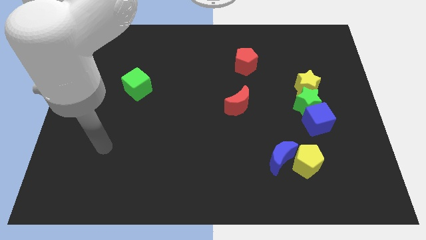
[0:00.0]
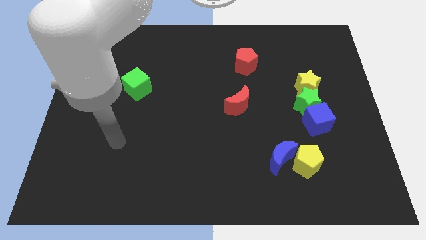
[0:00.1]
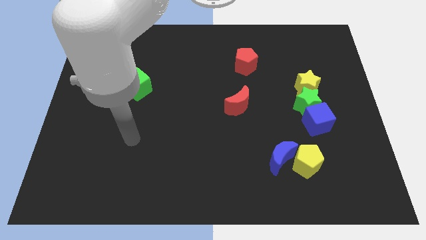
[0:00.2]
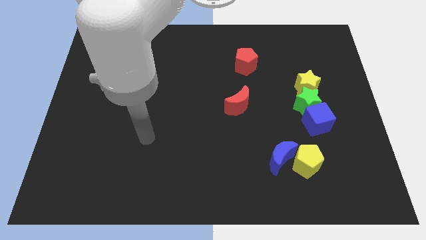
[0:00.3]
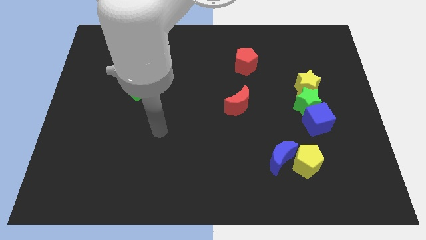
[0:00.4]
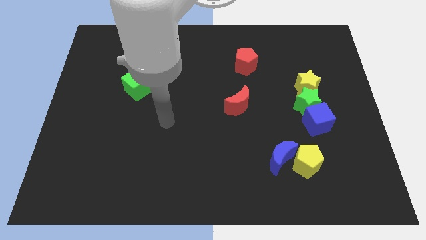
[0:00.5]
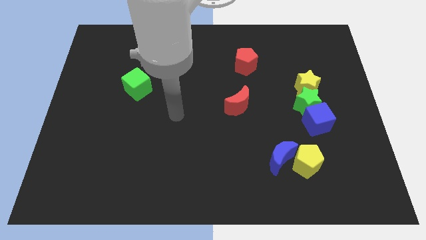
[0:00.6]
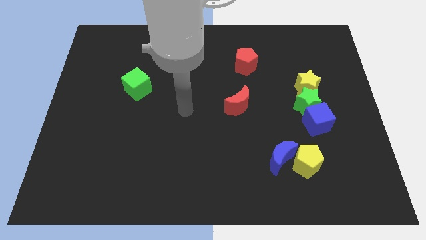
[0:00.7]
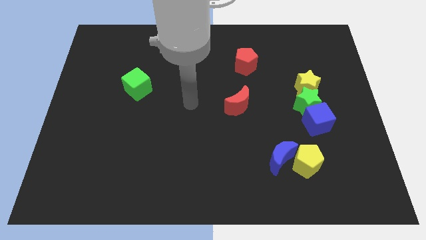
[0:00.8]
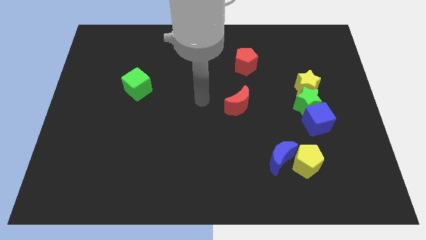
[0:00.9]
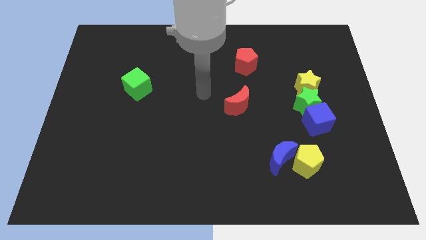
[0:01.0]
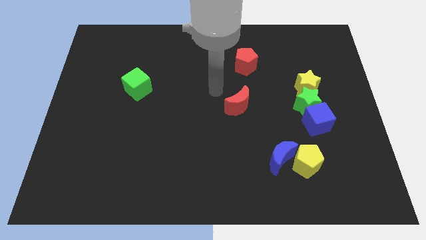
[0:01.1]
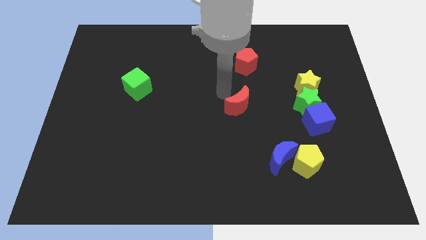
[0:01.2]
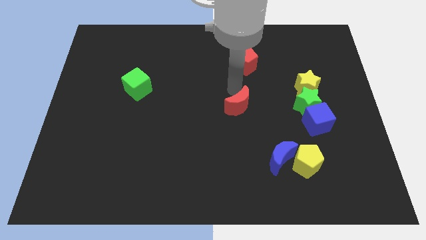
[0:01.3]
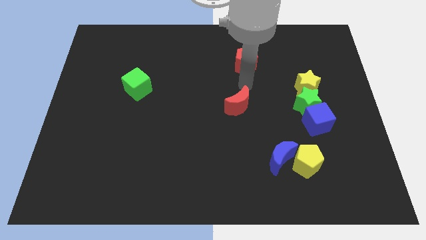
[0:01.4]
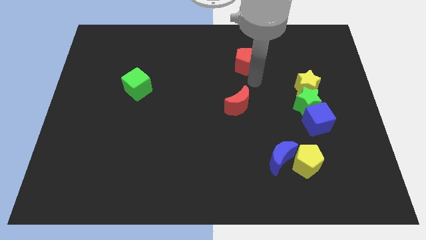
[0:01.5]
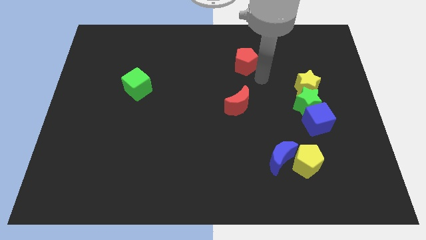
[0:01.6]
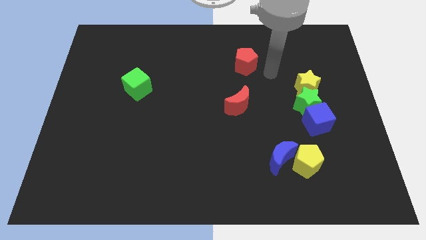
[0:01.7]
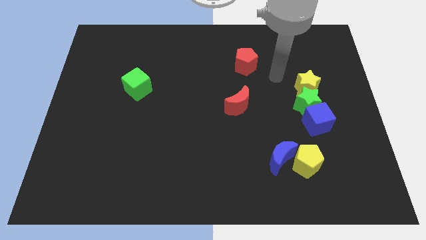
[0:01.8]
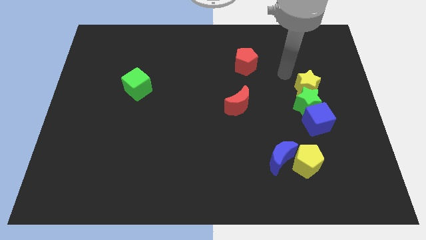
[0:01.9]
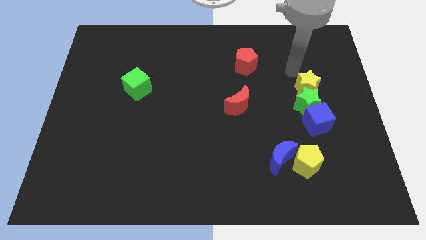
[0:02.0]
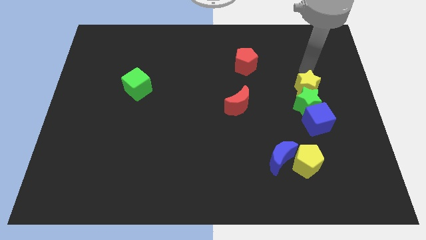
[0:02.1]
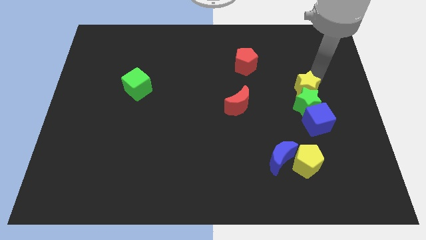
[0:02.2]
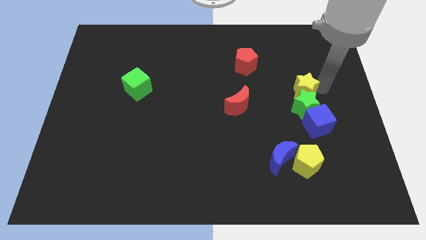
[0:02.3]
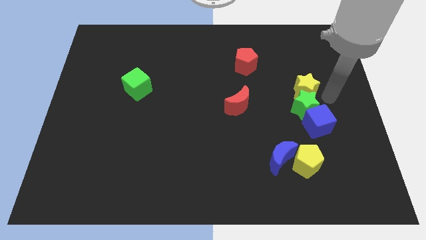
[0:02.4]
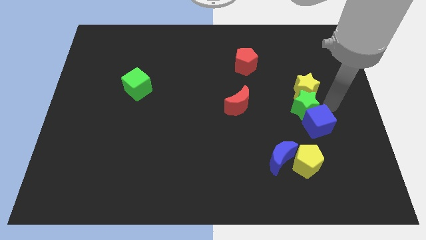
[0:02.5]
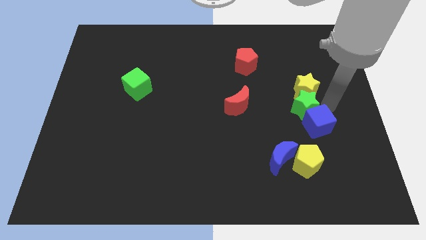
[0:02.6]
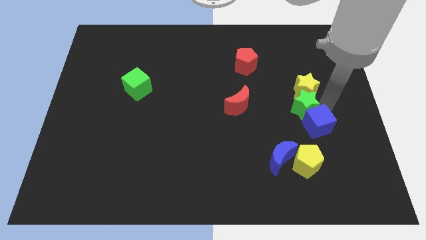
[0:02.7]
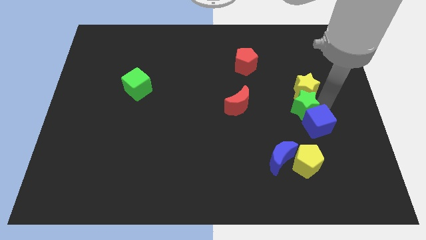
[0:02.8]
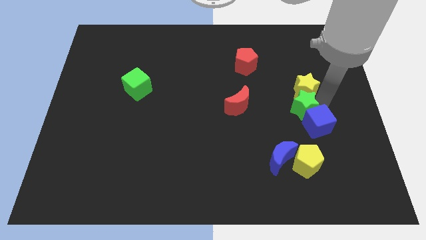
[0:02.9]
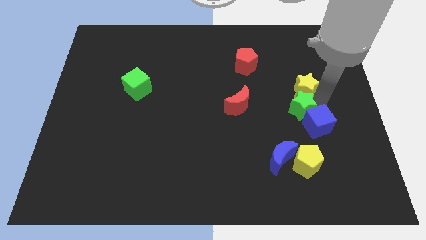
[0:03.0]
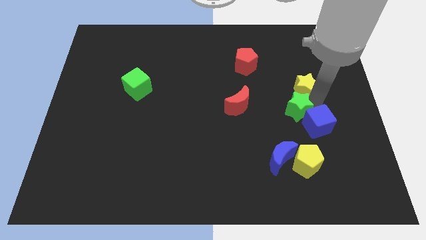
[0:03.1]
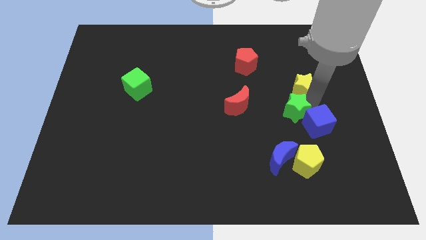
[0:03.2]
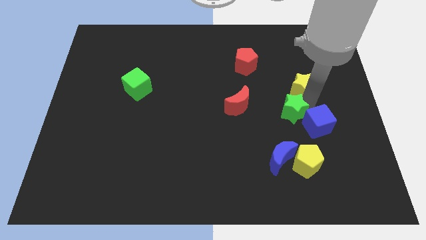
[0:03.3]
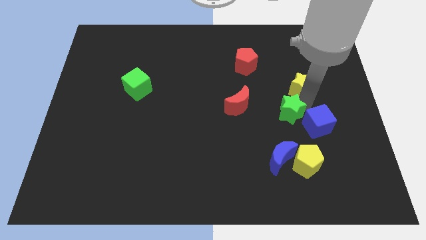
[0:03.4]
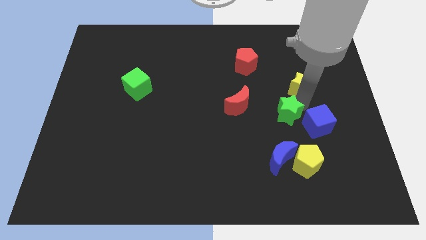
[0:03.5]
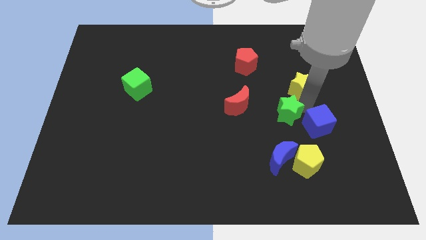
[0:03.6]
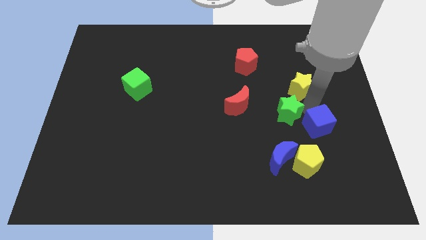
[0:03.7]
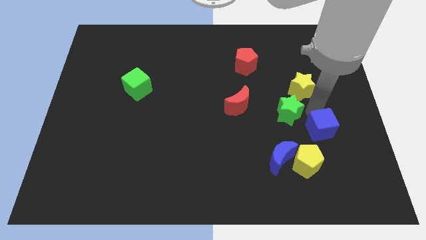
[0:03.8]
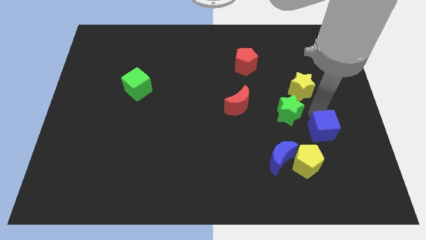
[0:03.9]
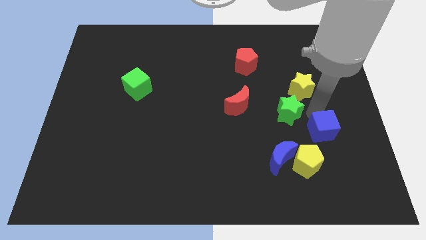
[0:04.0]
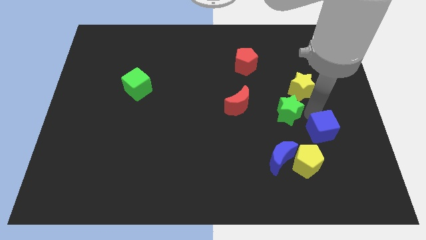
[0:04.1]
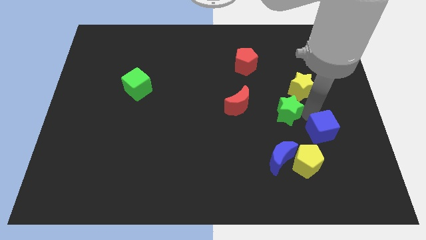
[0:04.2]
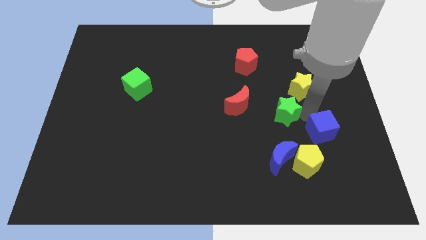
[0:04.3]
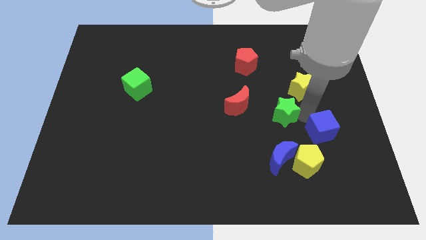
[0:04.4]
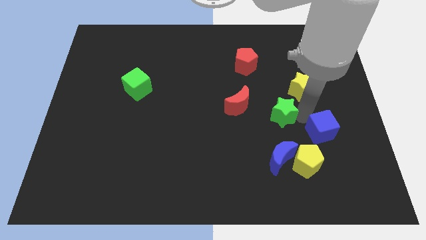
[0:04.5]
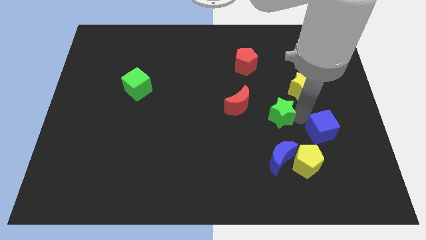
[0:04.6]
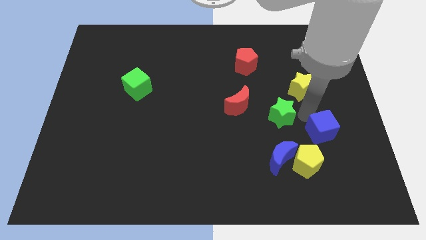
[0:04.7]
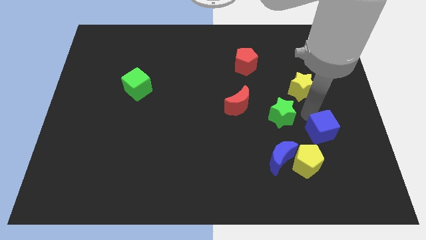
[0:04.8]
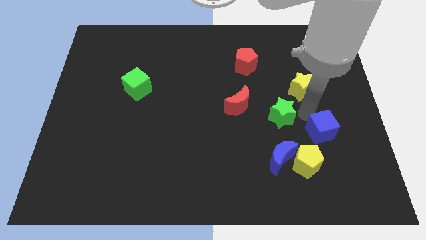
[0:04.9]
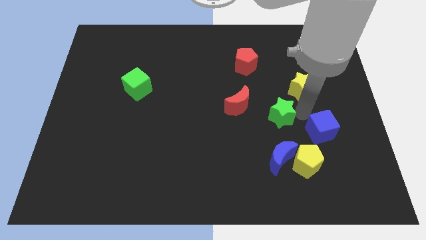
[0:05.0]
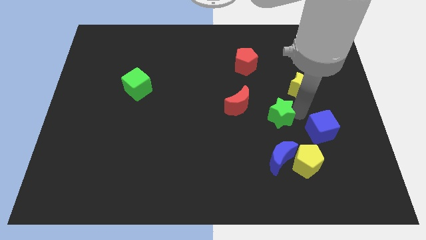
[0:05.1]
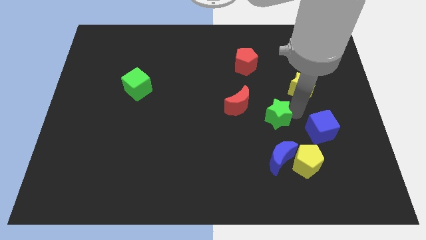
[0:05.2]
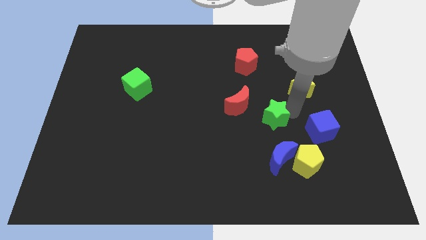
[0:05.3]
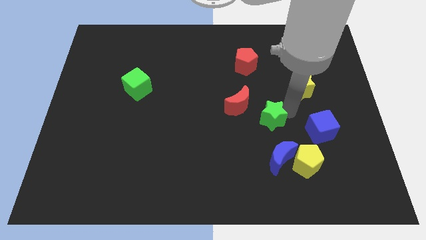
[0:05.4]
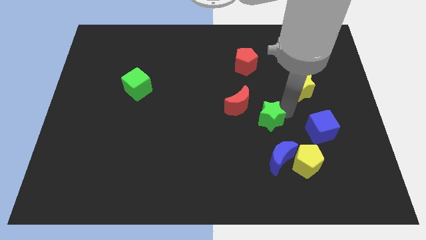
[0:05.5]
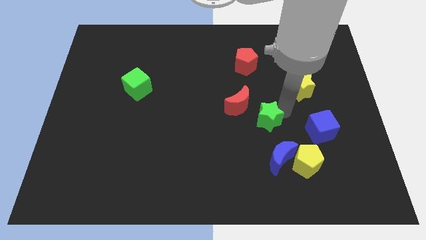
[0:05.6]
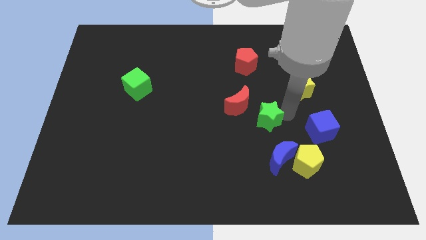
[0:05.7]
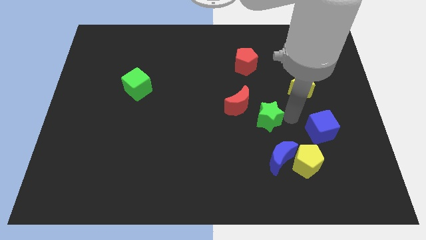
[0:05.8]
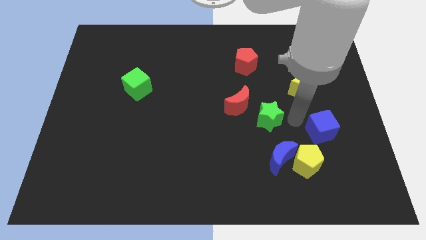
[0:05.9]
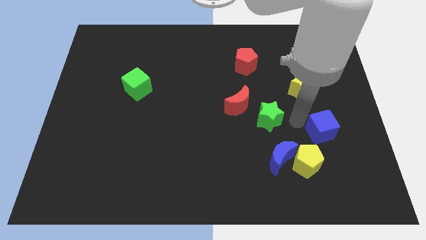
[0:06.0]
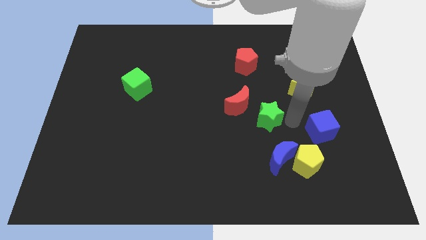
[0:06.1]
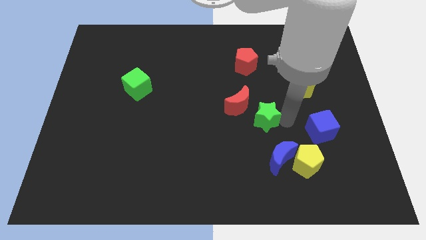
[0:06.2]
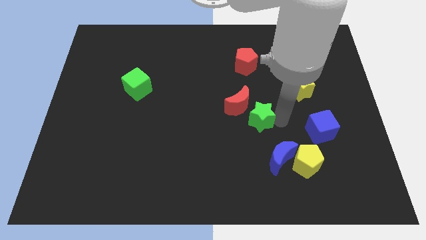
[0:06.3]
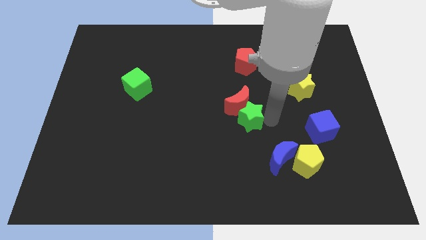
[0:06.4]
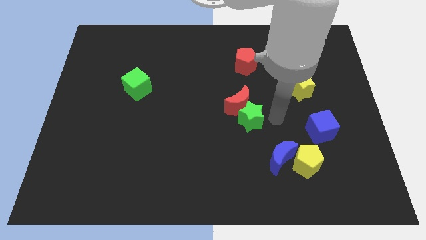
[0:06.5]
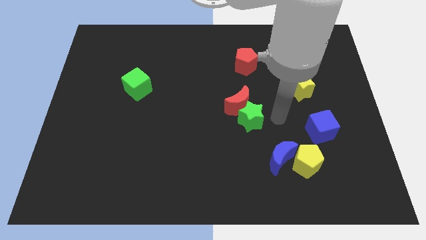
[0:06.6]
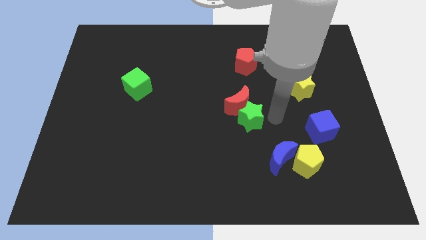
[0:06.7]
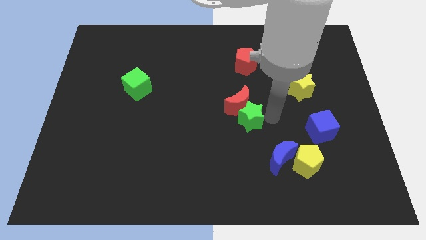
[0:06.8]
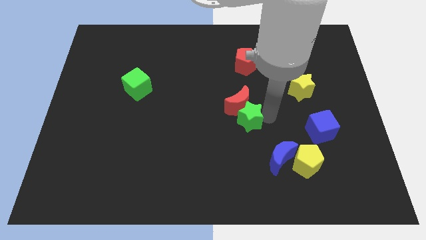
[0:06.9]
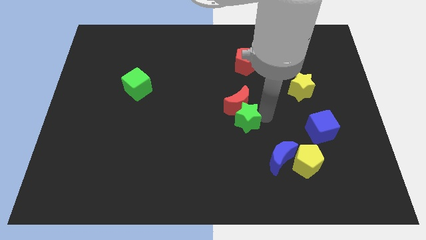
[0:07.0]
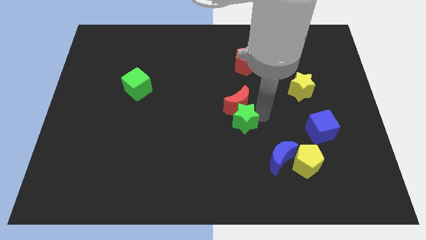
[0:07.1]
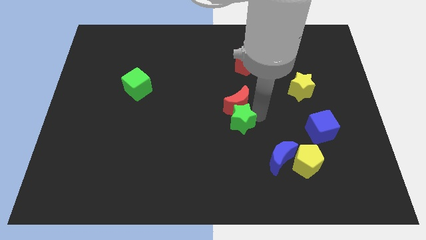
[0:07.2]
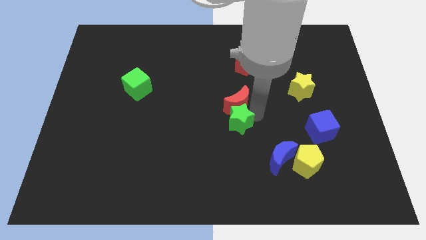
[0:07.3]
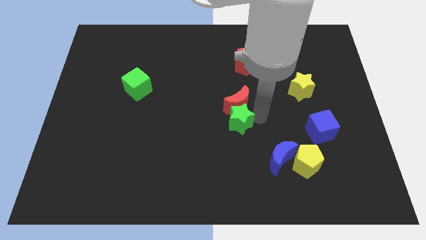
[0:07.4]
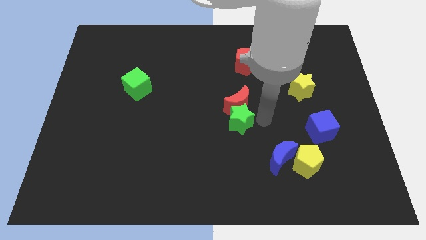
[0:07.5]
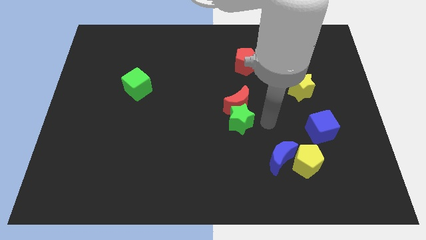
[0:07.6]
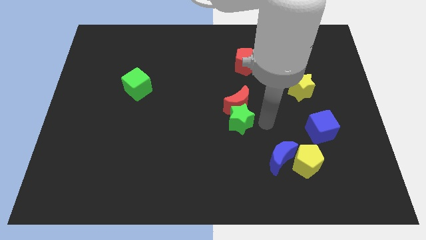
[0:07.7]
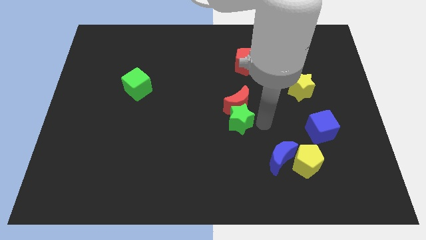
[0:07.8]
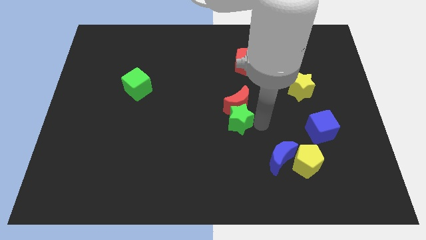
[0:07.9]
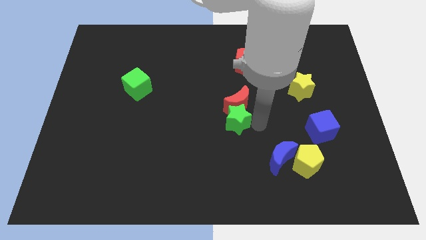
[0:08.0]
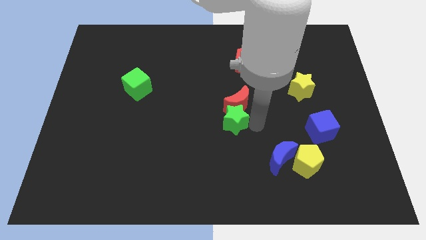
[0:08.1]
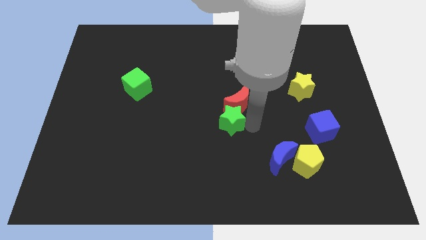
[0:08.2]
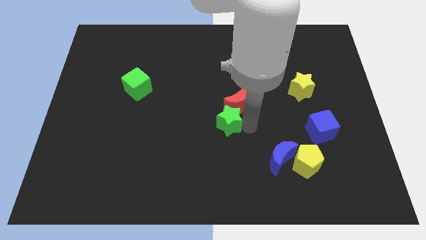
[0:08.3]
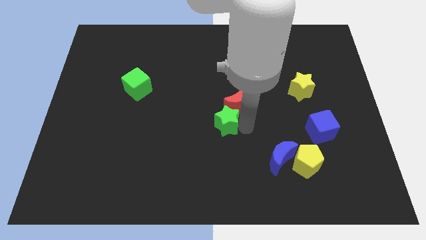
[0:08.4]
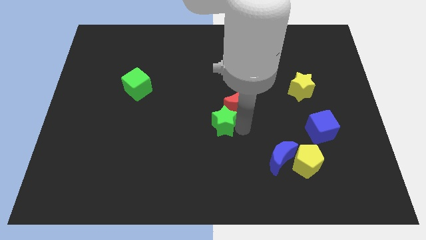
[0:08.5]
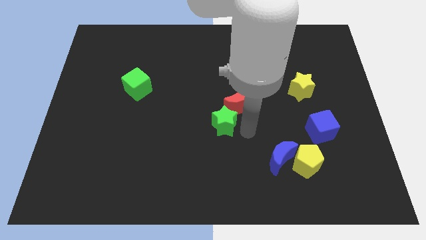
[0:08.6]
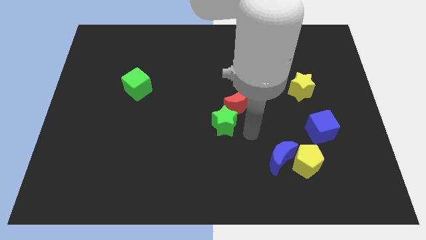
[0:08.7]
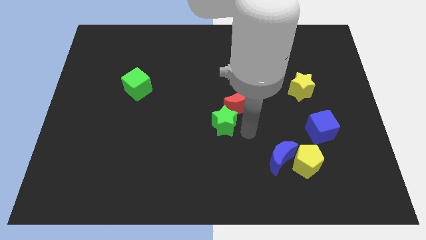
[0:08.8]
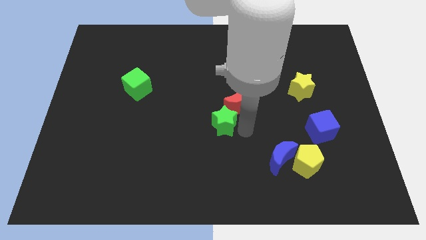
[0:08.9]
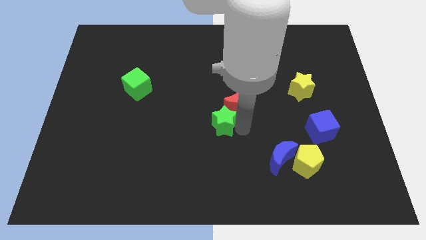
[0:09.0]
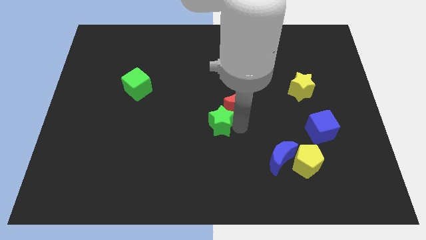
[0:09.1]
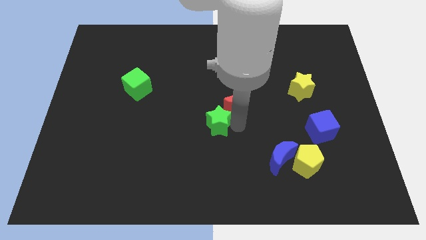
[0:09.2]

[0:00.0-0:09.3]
slide the green star to the left
